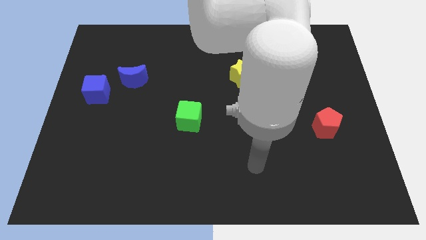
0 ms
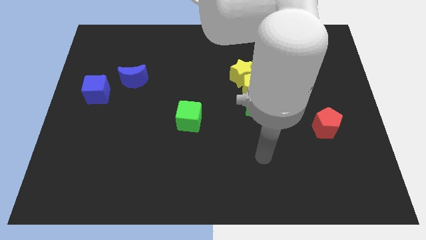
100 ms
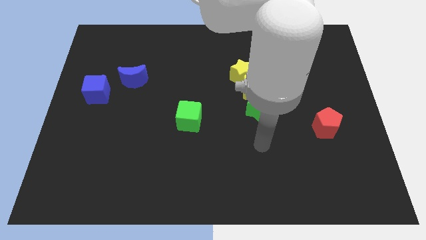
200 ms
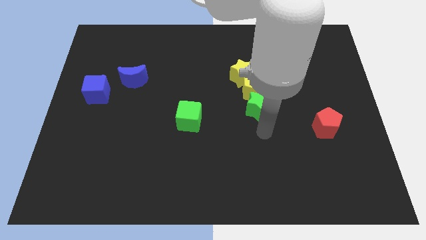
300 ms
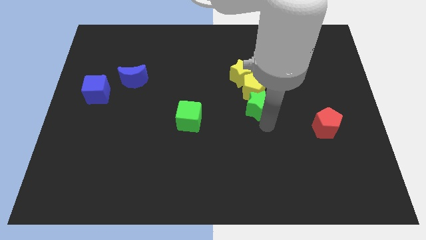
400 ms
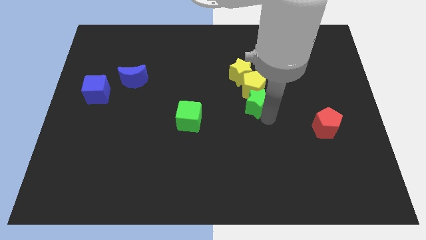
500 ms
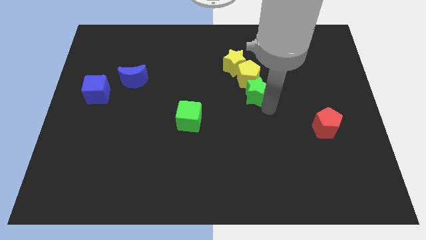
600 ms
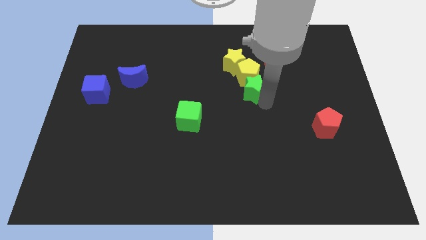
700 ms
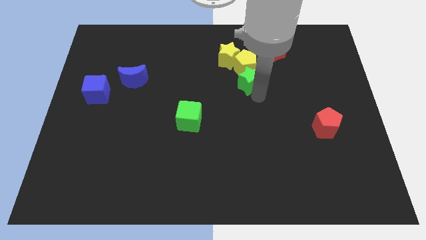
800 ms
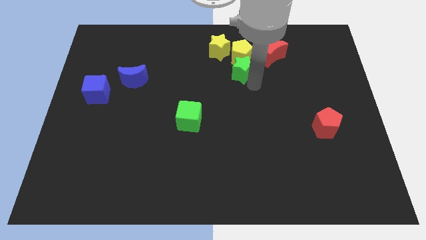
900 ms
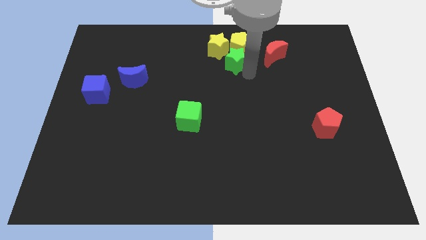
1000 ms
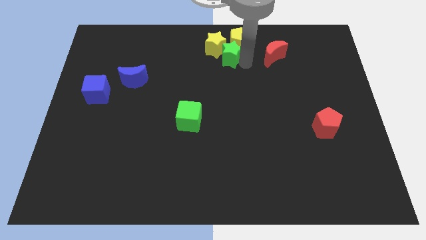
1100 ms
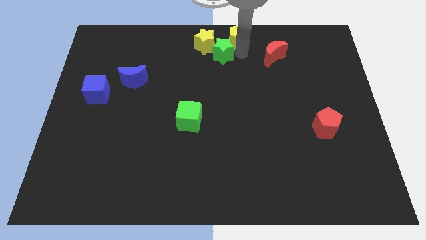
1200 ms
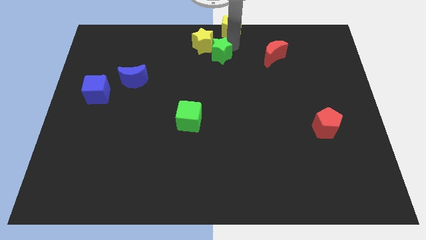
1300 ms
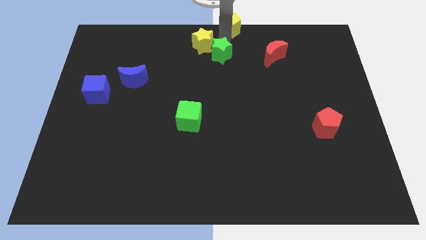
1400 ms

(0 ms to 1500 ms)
pull the yellow star apart from the yellow pentagon

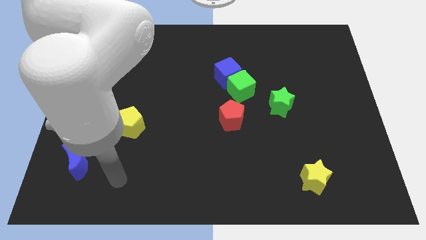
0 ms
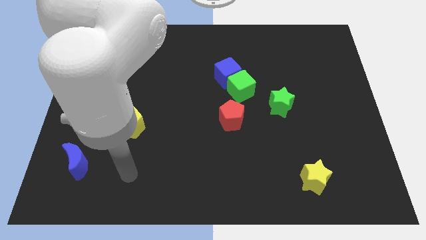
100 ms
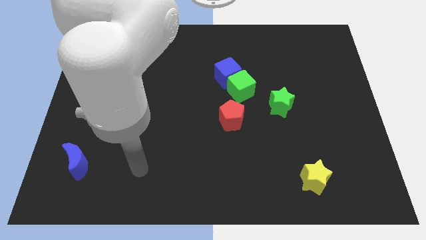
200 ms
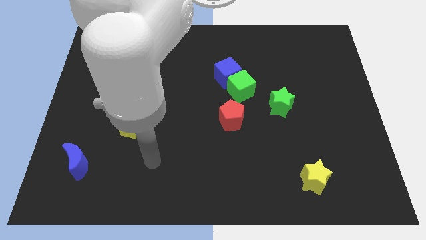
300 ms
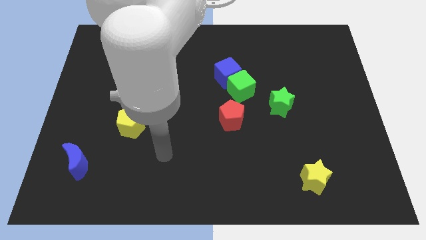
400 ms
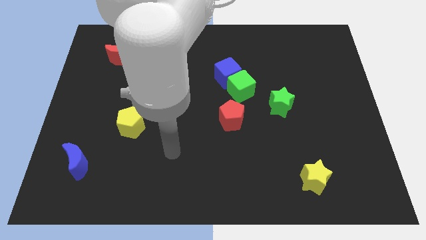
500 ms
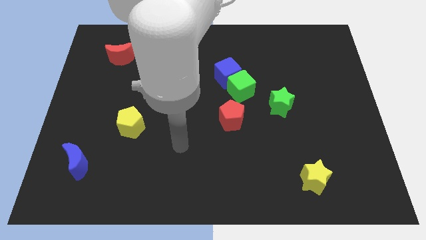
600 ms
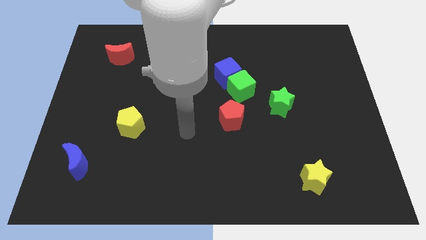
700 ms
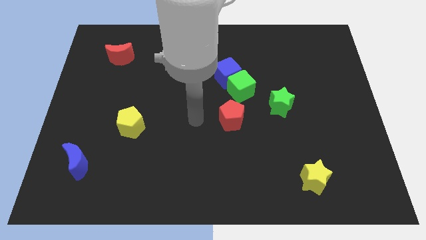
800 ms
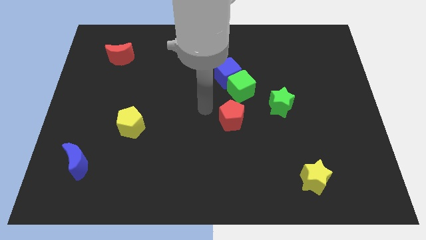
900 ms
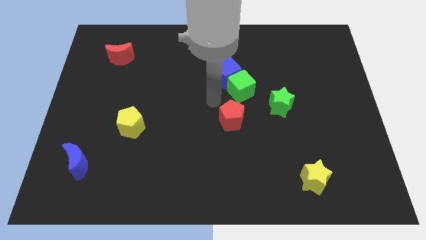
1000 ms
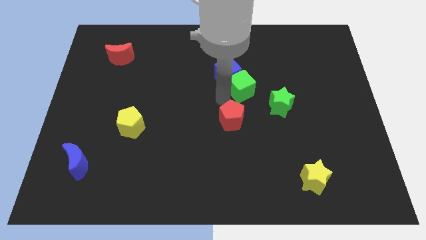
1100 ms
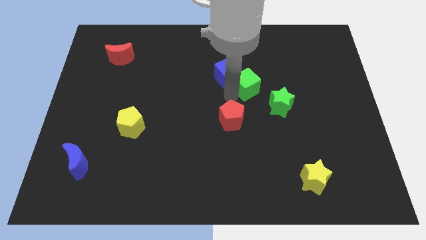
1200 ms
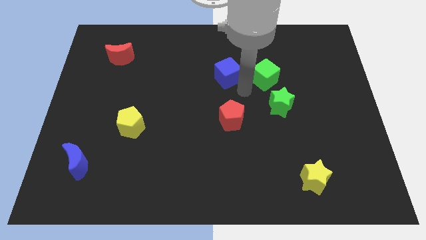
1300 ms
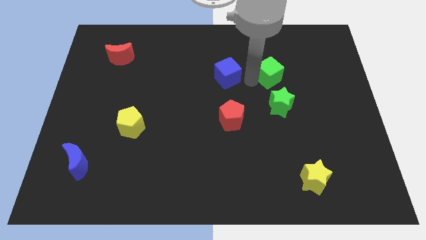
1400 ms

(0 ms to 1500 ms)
separate the blue cube from the green cube

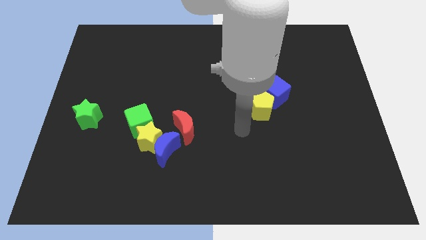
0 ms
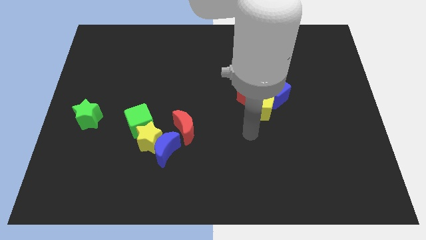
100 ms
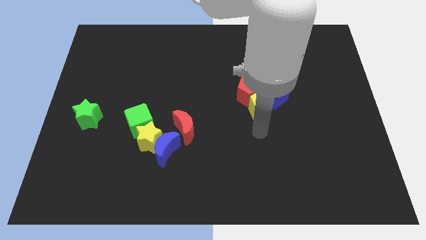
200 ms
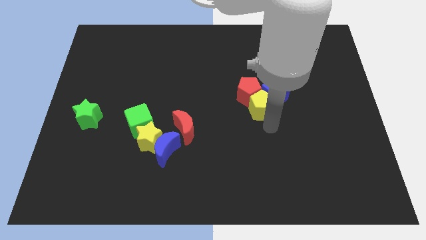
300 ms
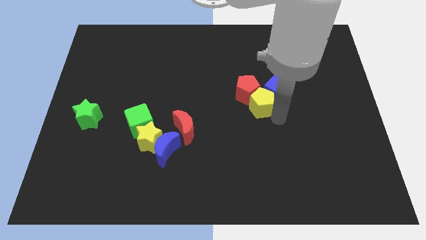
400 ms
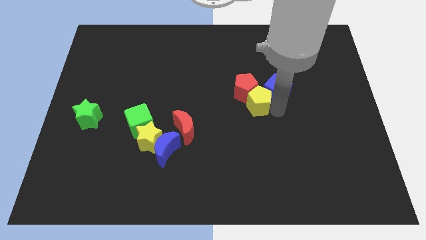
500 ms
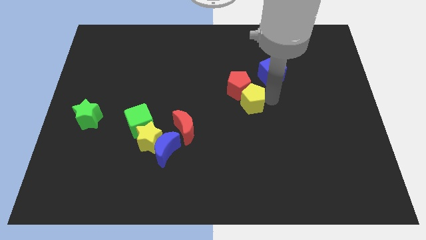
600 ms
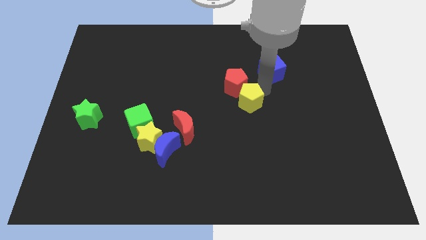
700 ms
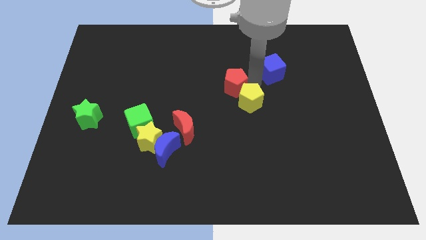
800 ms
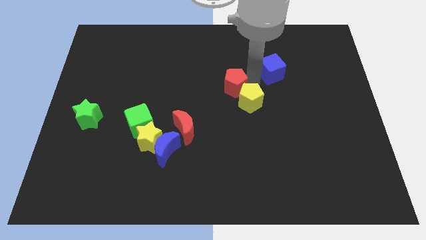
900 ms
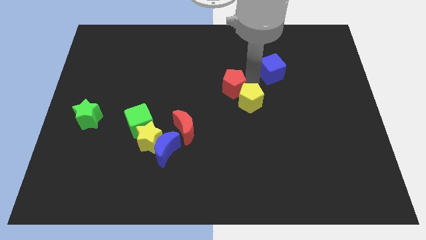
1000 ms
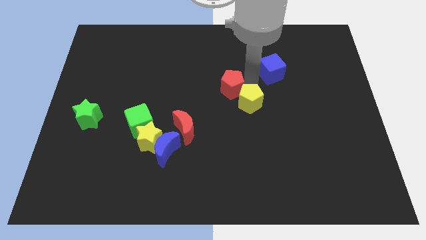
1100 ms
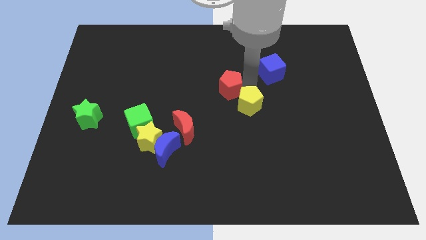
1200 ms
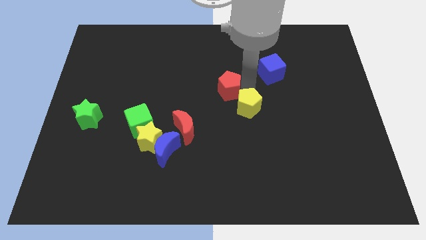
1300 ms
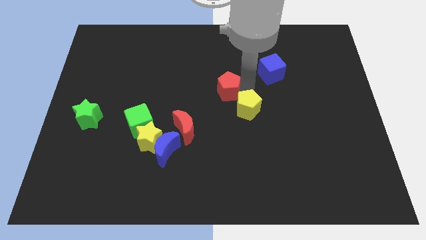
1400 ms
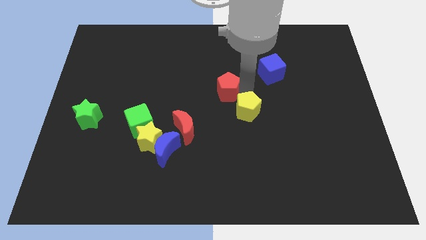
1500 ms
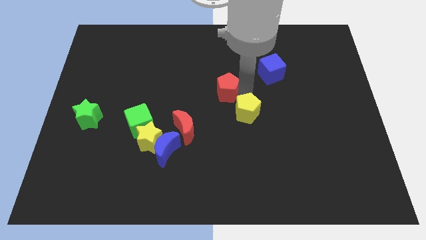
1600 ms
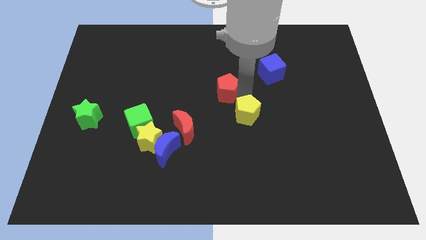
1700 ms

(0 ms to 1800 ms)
move the yellow pentagon away from the red pentagon and blue cube

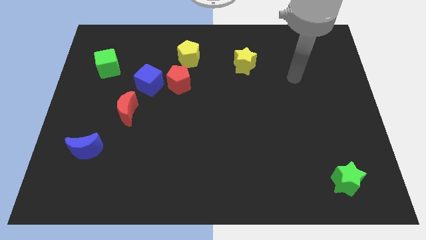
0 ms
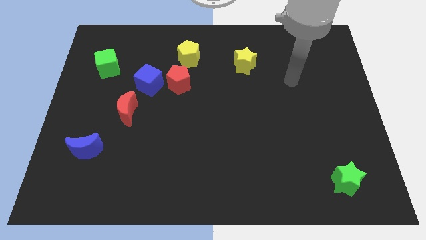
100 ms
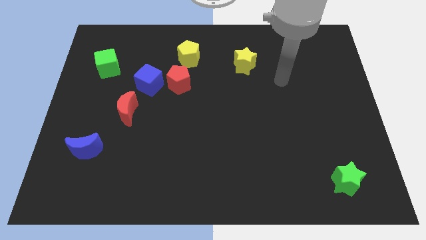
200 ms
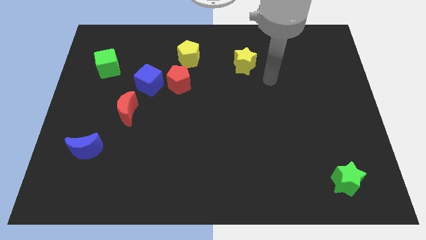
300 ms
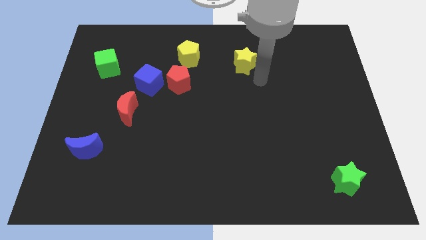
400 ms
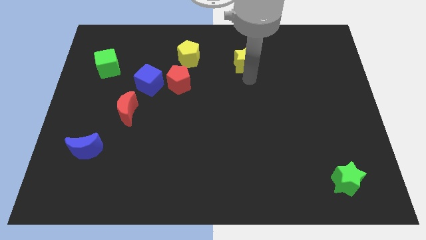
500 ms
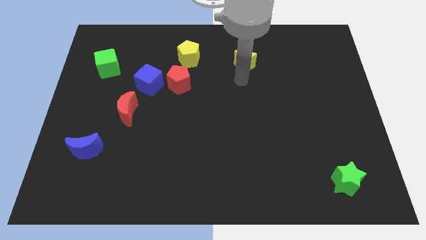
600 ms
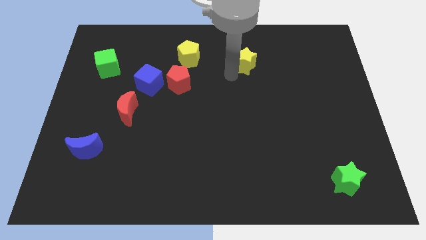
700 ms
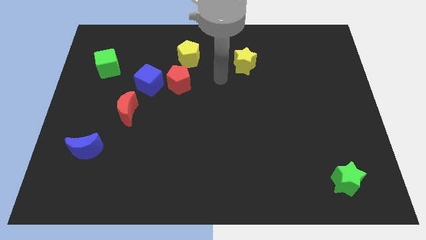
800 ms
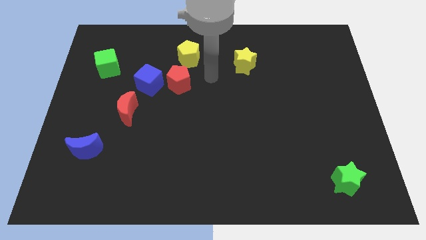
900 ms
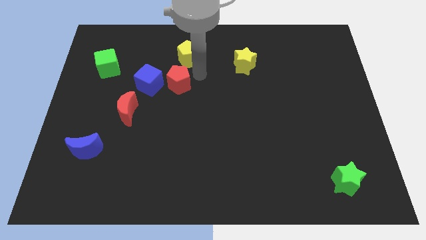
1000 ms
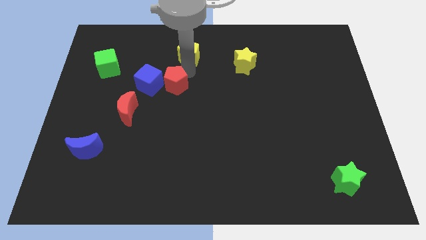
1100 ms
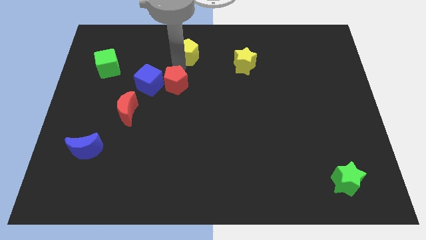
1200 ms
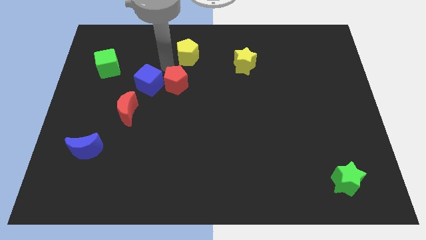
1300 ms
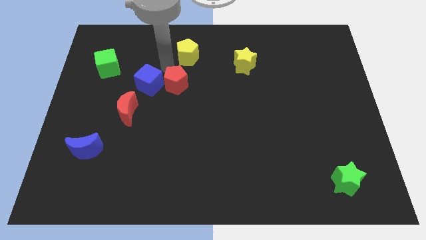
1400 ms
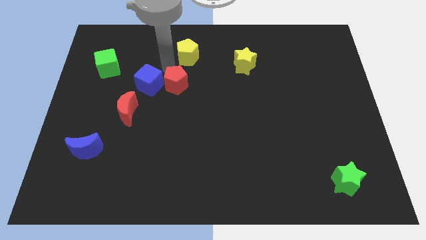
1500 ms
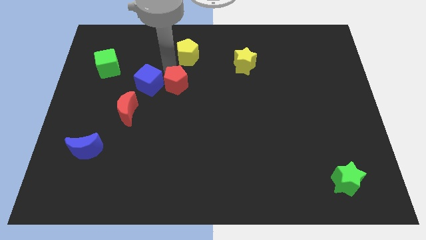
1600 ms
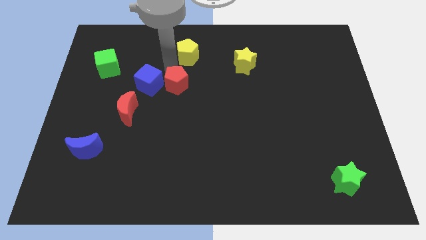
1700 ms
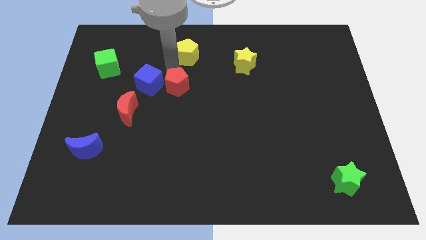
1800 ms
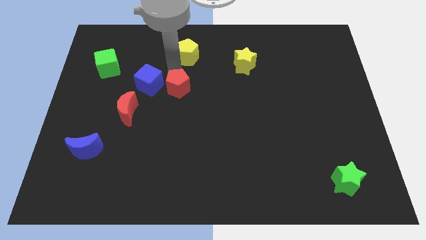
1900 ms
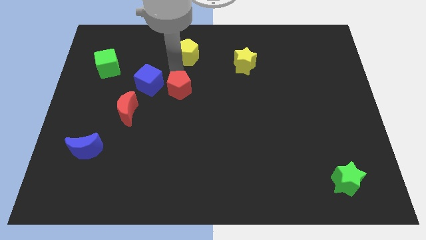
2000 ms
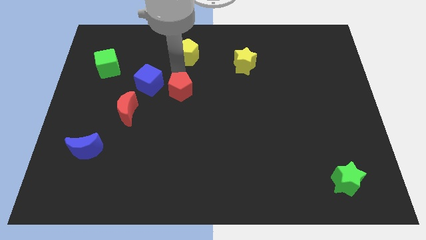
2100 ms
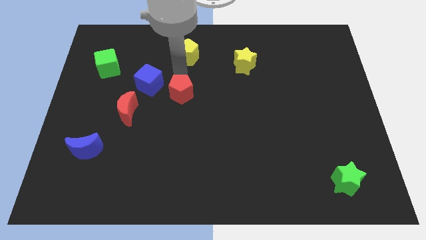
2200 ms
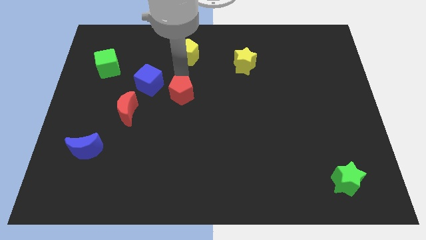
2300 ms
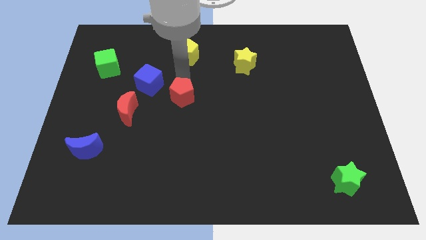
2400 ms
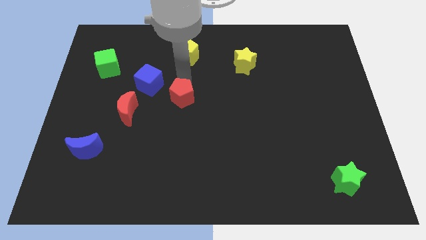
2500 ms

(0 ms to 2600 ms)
move the red pentagon away from the blue cube and yellow pentagon

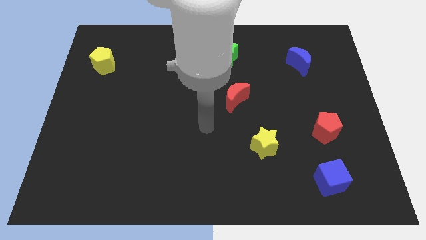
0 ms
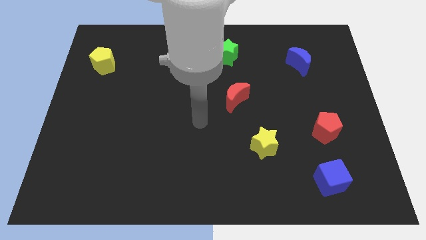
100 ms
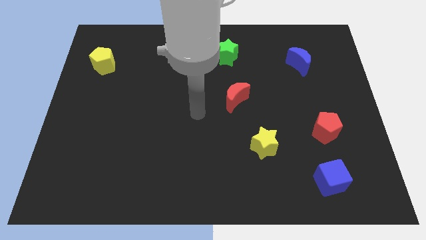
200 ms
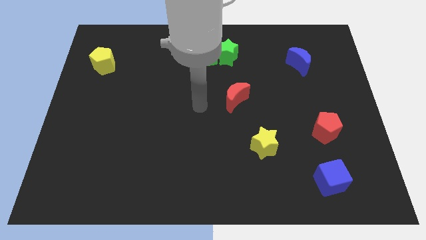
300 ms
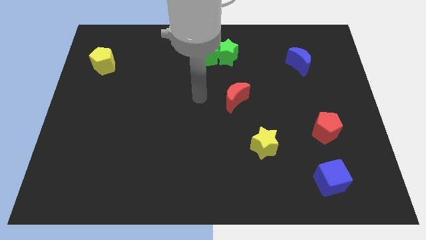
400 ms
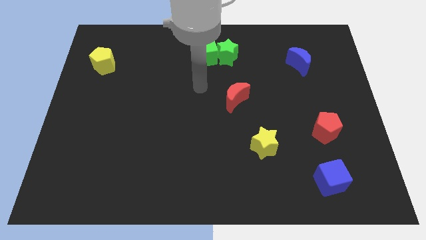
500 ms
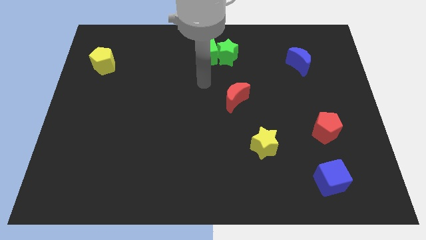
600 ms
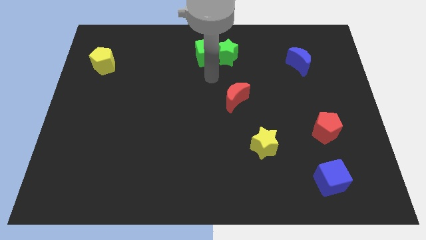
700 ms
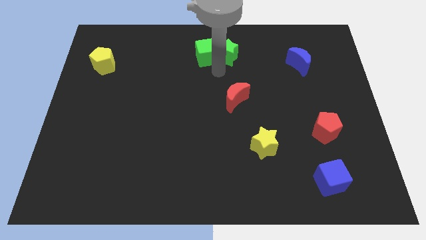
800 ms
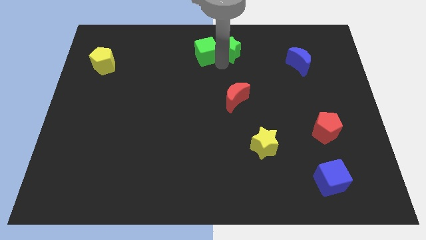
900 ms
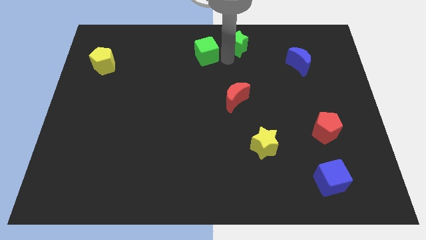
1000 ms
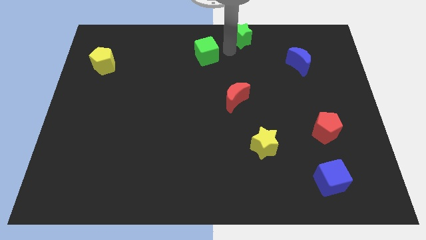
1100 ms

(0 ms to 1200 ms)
separate the green cube from the green star

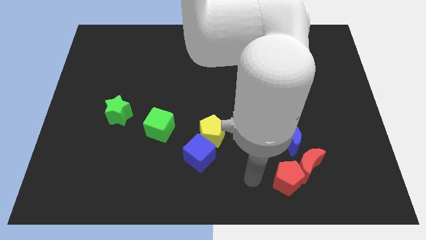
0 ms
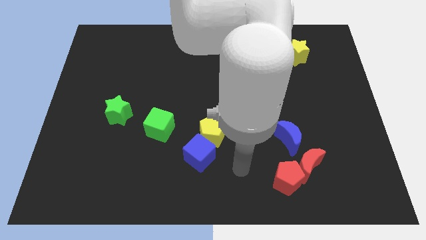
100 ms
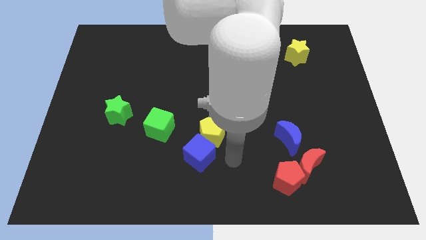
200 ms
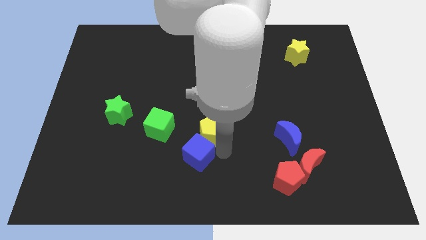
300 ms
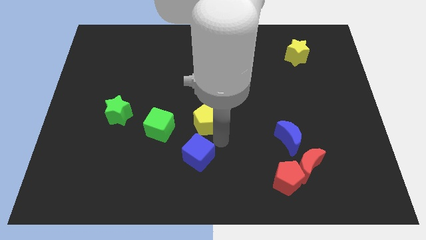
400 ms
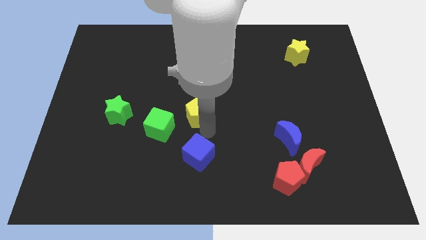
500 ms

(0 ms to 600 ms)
separate the blue cube from the yellow pentagon
